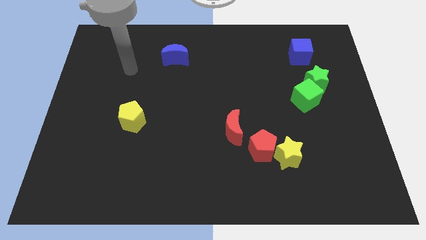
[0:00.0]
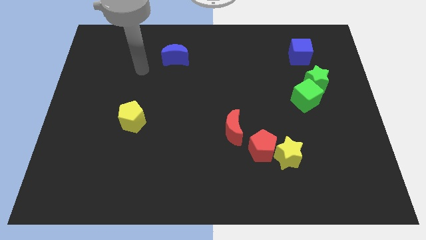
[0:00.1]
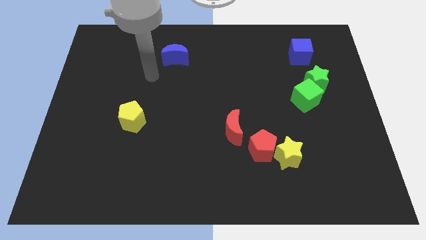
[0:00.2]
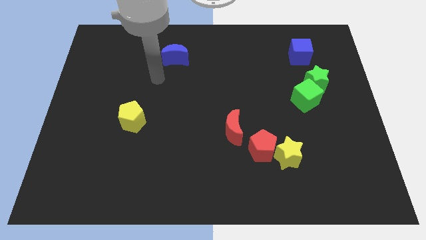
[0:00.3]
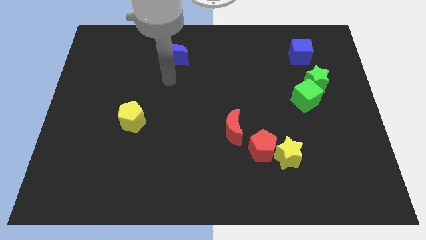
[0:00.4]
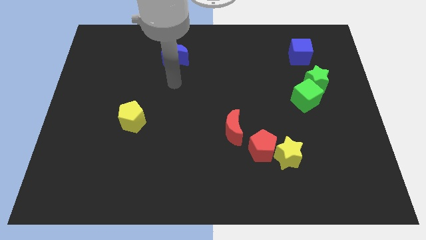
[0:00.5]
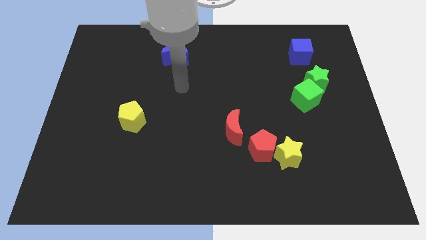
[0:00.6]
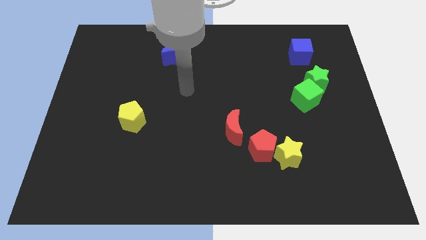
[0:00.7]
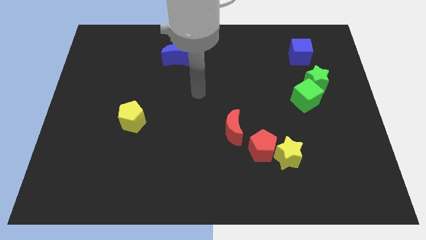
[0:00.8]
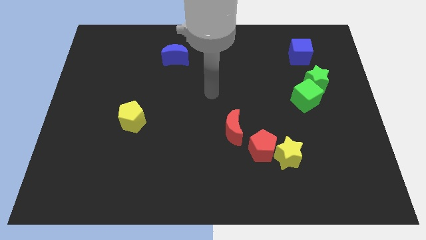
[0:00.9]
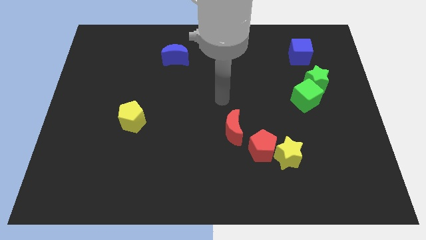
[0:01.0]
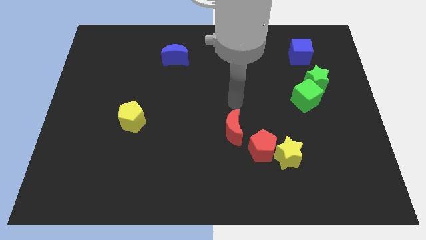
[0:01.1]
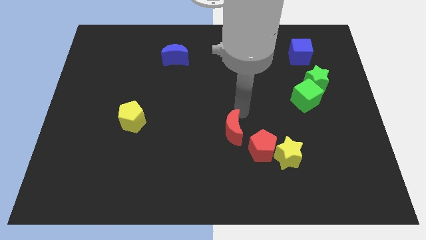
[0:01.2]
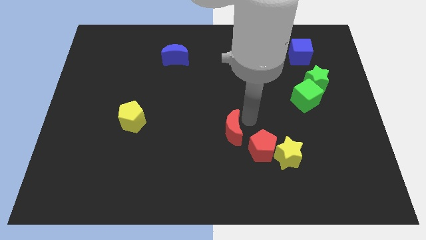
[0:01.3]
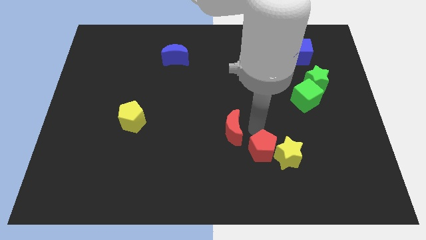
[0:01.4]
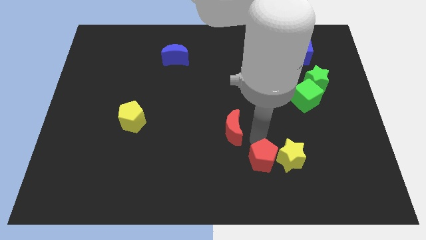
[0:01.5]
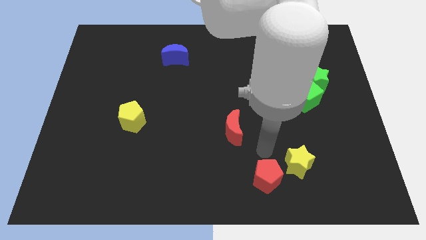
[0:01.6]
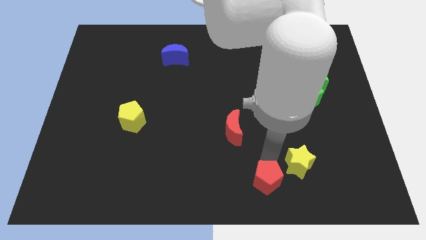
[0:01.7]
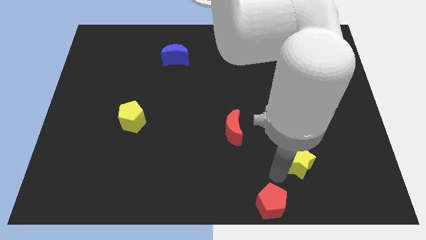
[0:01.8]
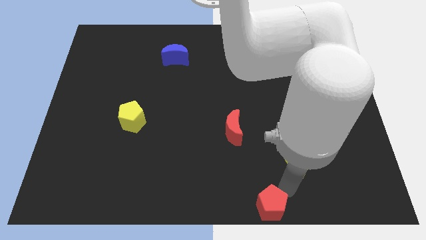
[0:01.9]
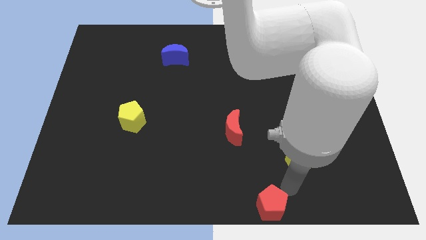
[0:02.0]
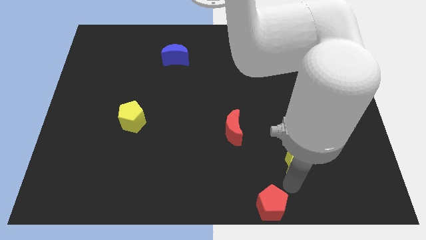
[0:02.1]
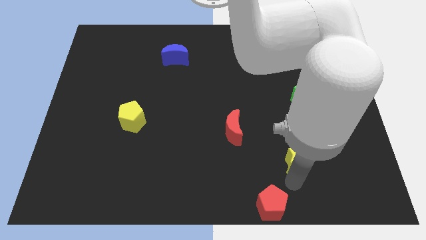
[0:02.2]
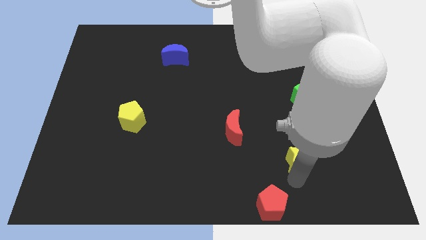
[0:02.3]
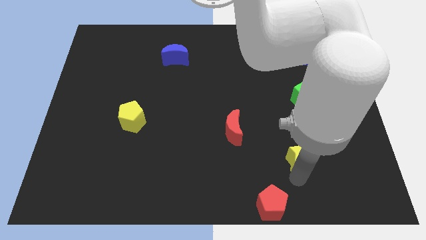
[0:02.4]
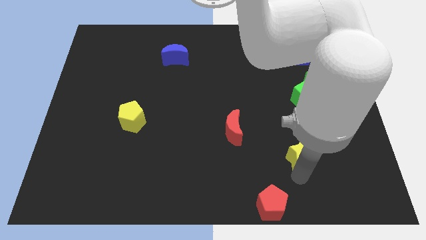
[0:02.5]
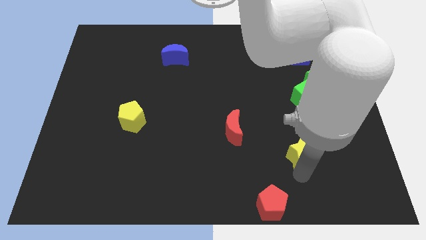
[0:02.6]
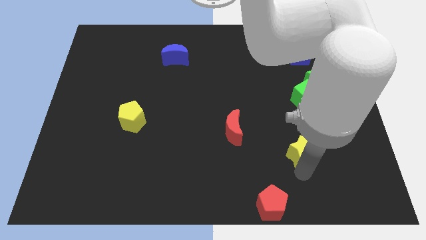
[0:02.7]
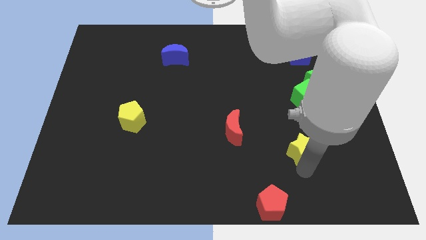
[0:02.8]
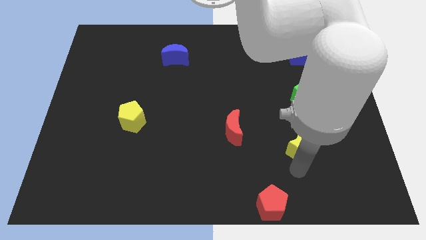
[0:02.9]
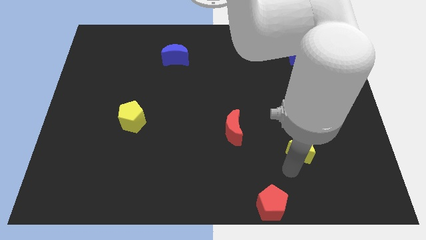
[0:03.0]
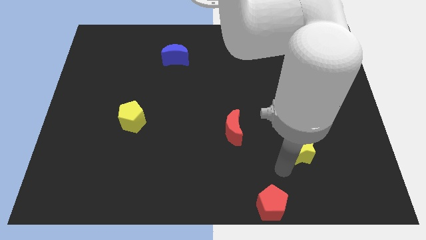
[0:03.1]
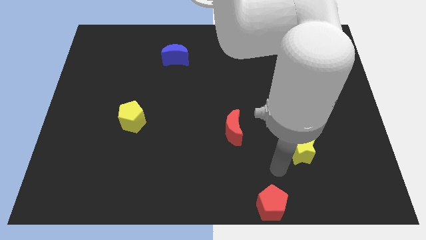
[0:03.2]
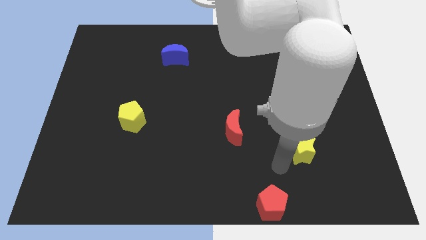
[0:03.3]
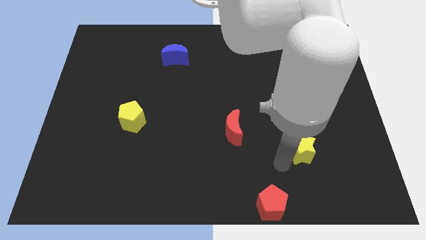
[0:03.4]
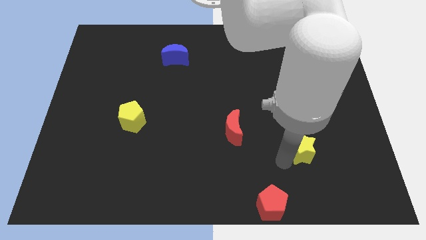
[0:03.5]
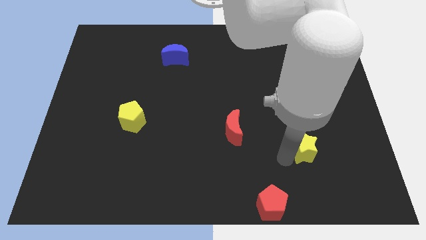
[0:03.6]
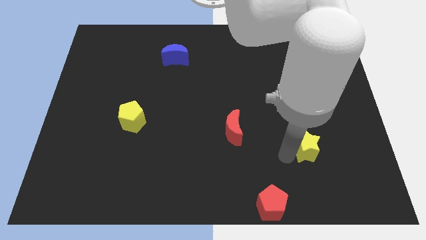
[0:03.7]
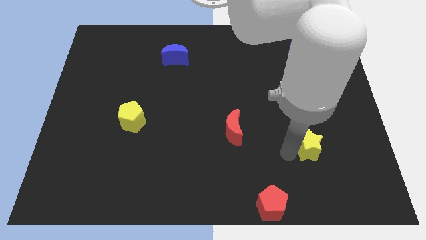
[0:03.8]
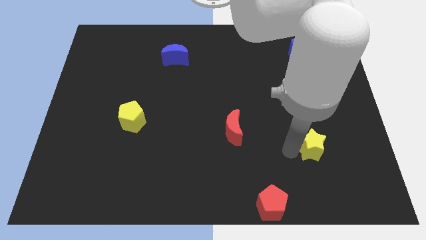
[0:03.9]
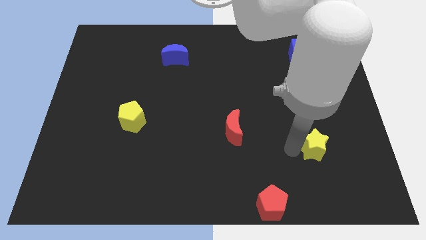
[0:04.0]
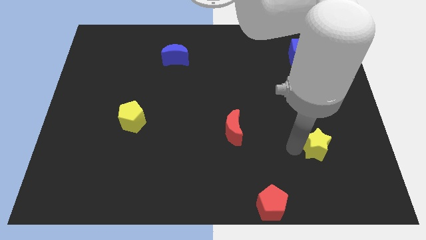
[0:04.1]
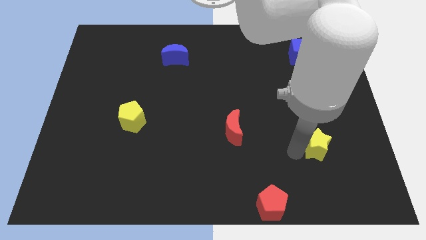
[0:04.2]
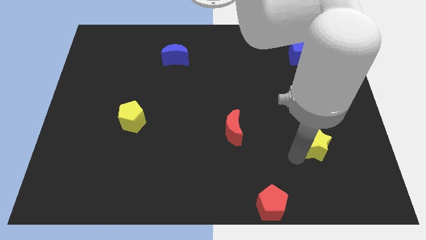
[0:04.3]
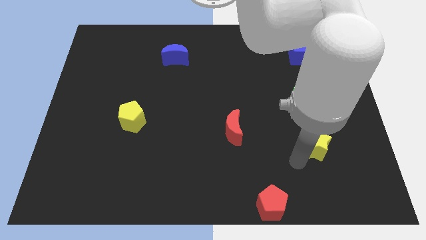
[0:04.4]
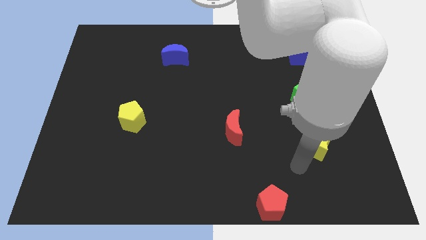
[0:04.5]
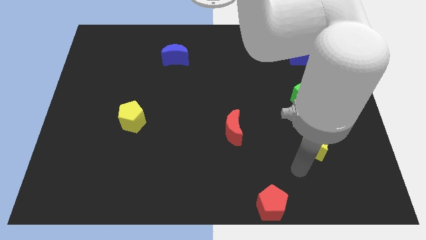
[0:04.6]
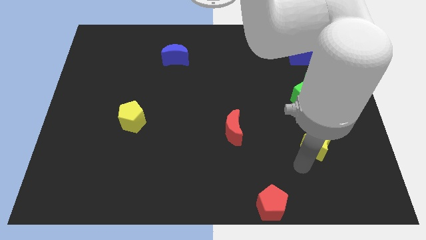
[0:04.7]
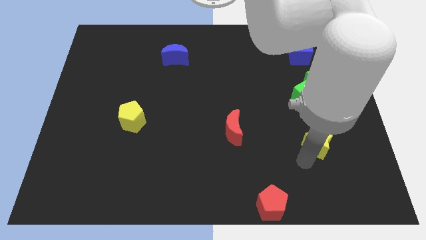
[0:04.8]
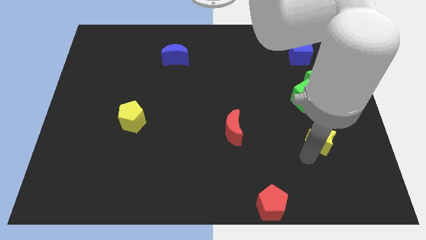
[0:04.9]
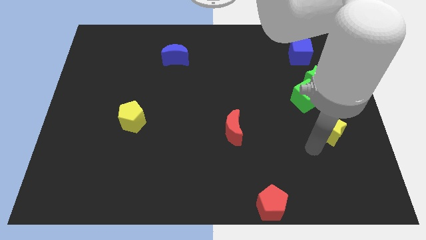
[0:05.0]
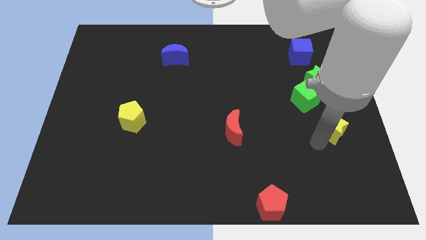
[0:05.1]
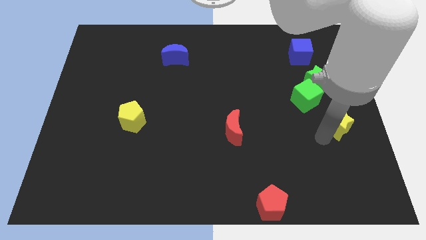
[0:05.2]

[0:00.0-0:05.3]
move the yellow star to the right side of the board

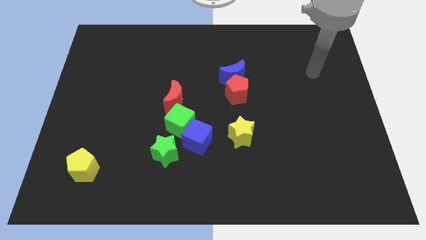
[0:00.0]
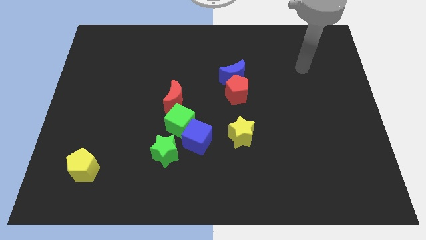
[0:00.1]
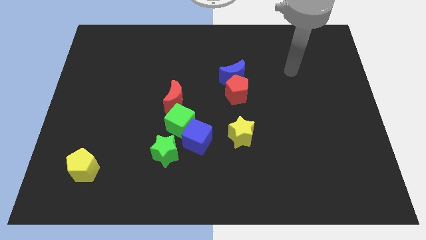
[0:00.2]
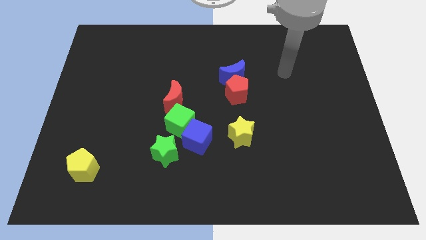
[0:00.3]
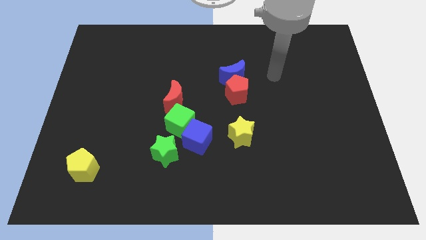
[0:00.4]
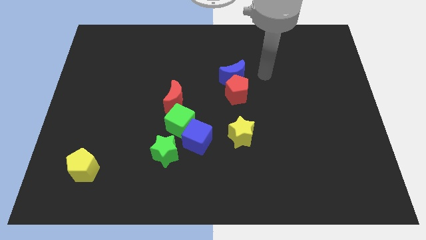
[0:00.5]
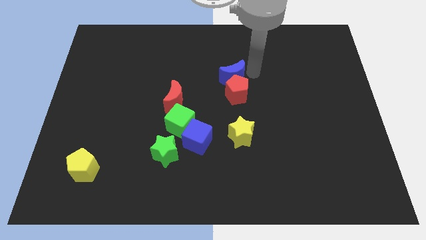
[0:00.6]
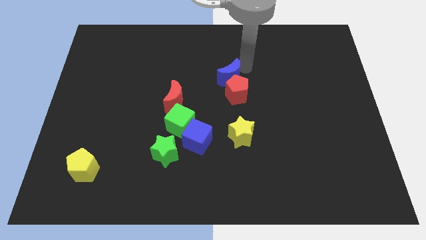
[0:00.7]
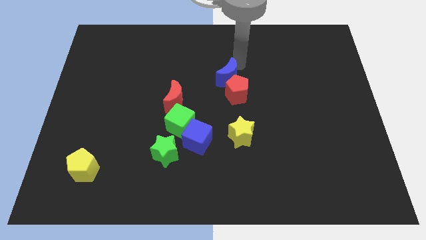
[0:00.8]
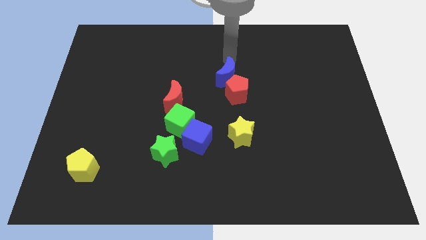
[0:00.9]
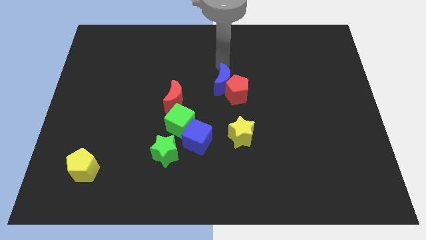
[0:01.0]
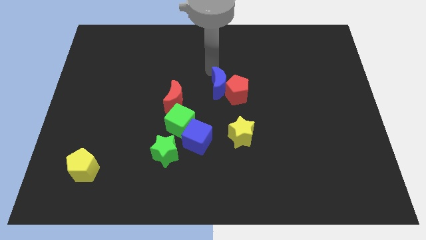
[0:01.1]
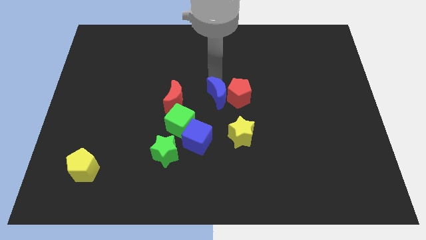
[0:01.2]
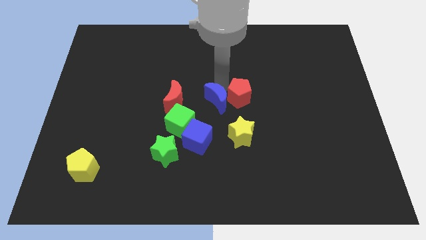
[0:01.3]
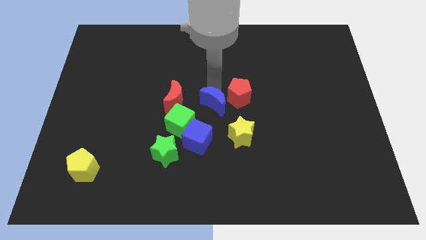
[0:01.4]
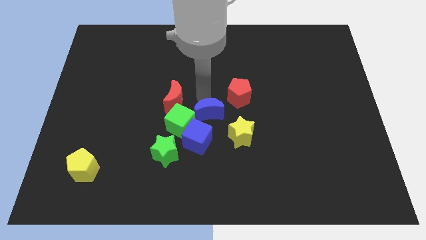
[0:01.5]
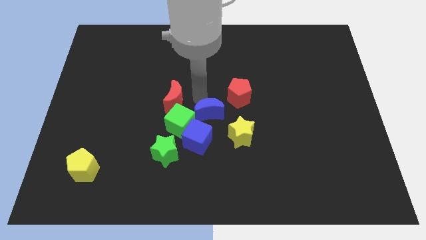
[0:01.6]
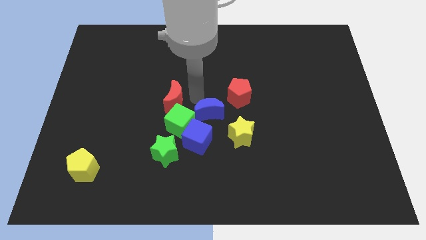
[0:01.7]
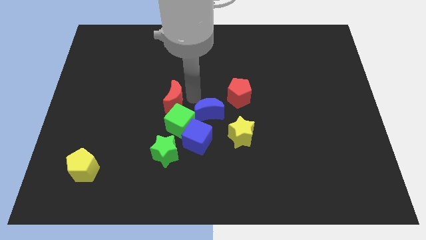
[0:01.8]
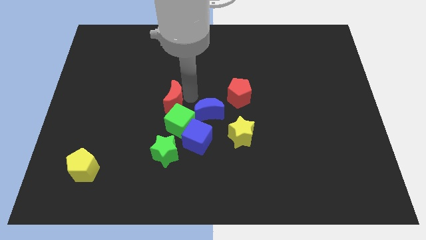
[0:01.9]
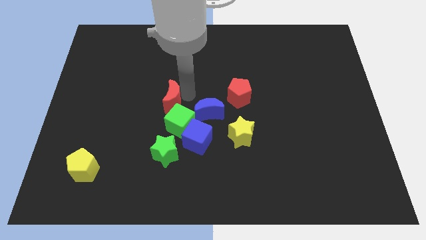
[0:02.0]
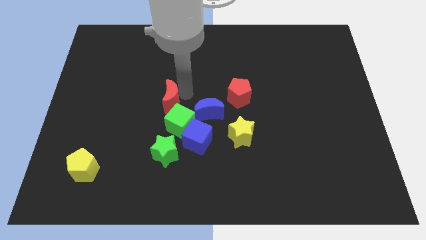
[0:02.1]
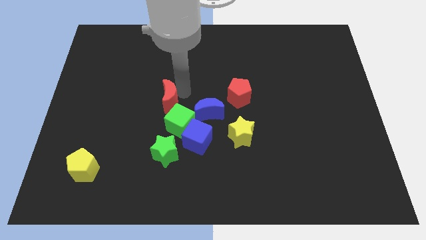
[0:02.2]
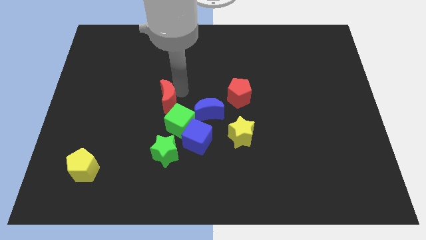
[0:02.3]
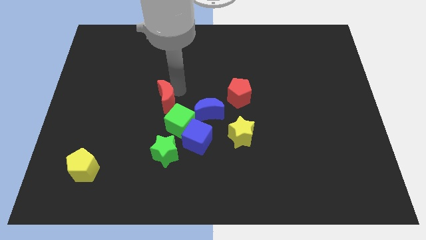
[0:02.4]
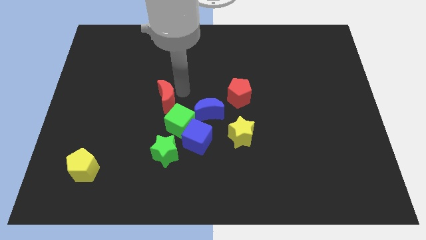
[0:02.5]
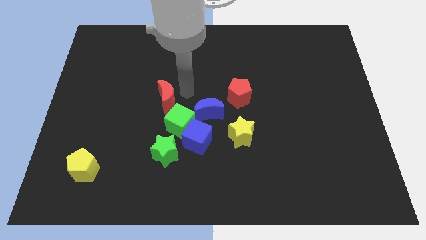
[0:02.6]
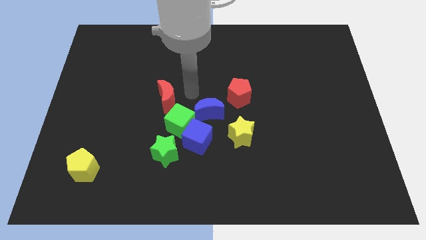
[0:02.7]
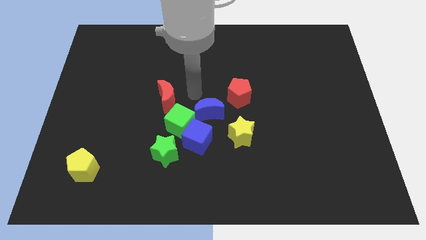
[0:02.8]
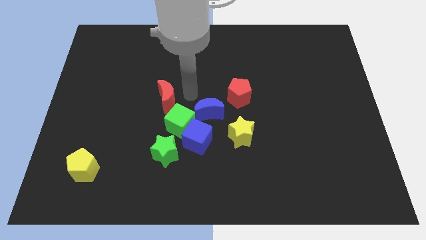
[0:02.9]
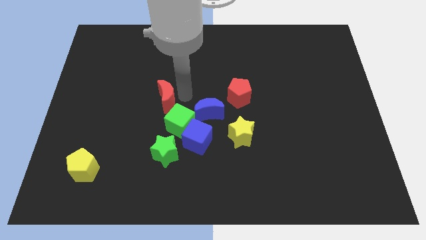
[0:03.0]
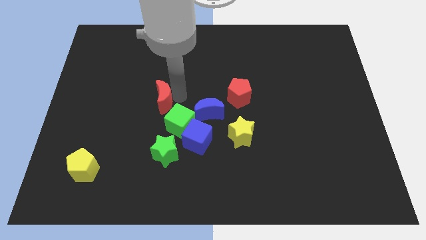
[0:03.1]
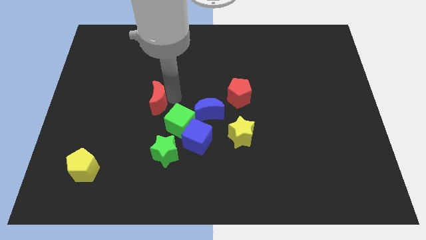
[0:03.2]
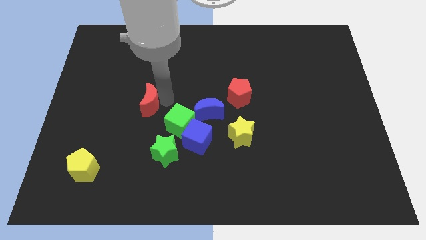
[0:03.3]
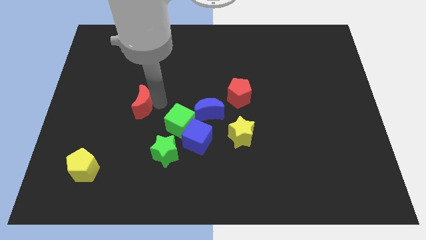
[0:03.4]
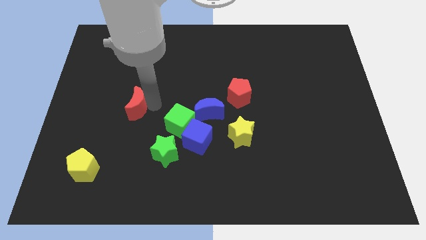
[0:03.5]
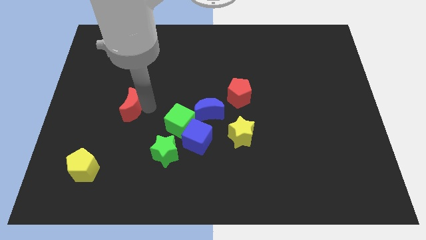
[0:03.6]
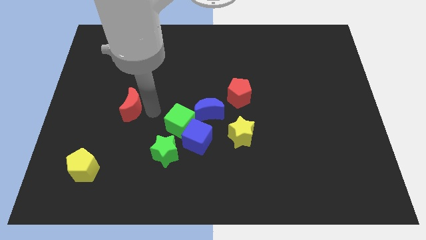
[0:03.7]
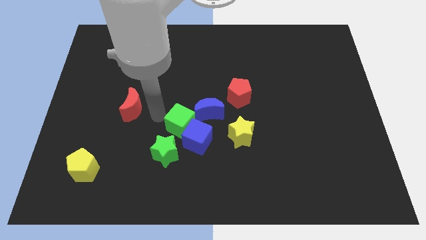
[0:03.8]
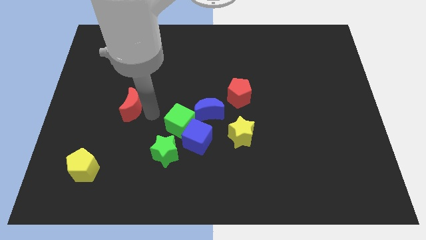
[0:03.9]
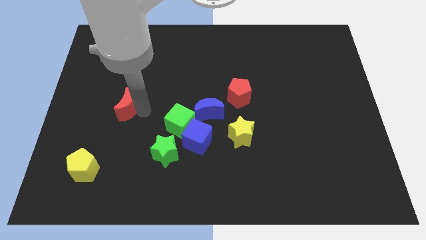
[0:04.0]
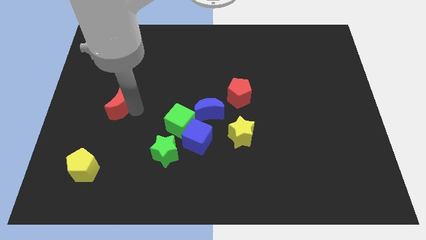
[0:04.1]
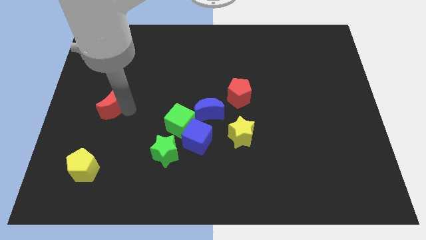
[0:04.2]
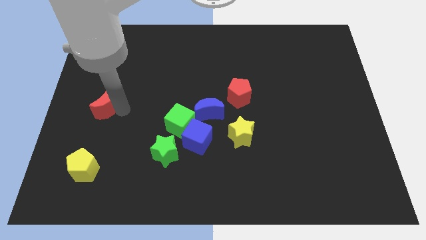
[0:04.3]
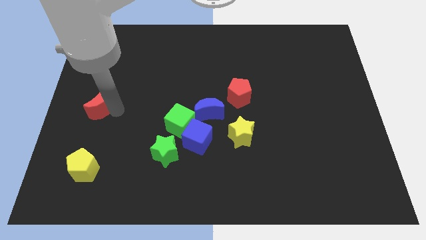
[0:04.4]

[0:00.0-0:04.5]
slide the red moon to the left side
